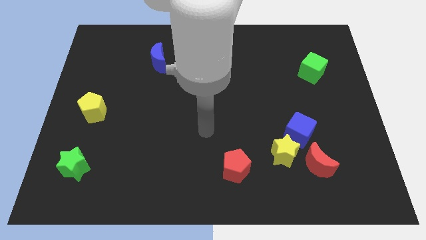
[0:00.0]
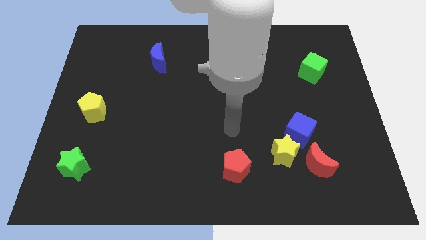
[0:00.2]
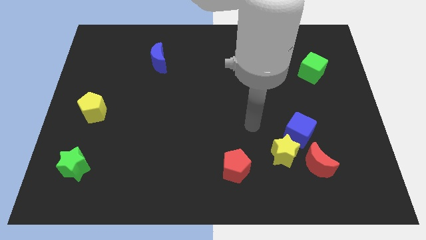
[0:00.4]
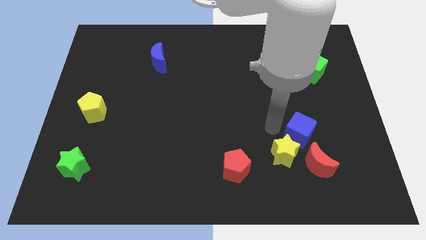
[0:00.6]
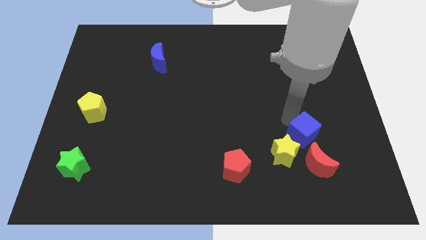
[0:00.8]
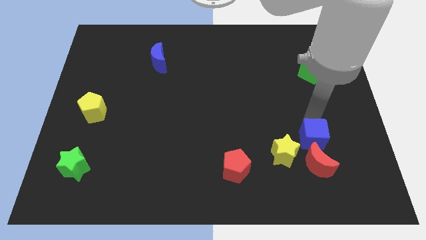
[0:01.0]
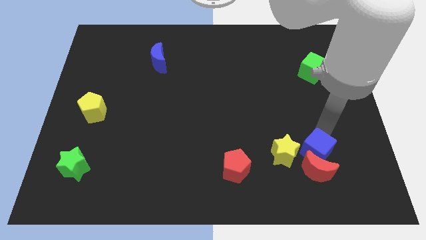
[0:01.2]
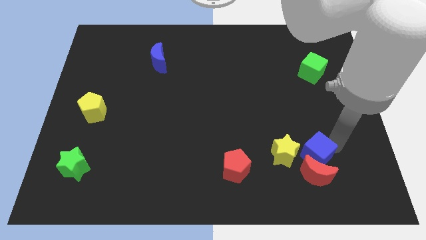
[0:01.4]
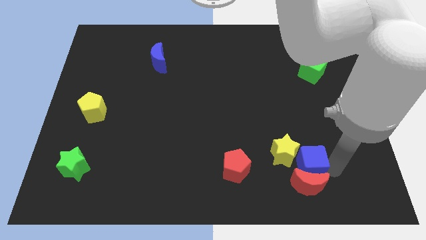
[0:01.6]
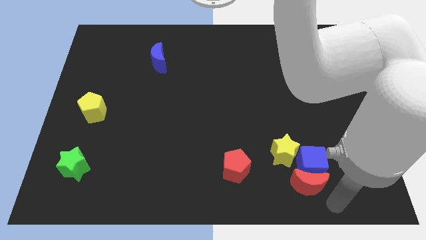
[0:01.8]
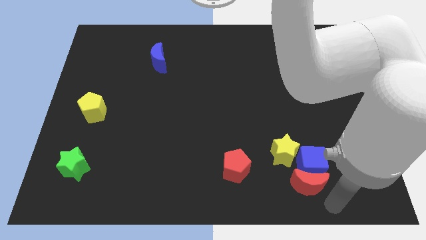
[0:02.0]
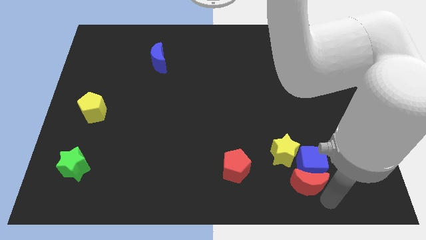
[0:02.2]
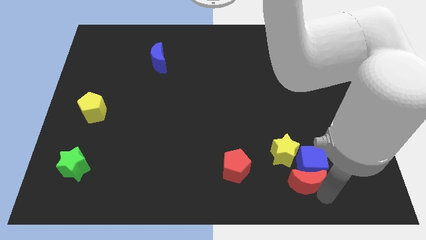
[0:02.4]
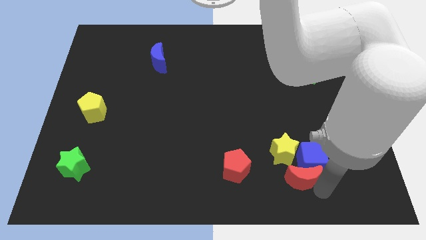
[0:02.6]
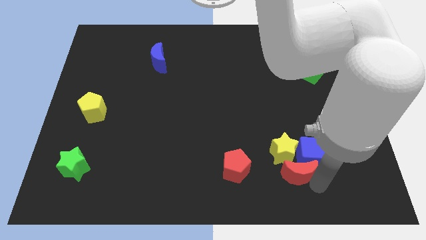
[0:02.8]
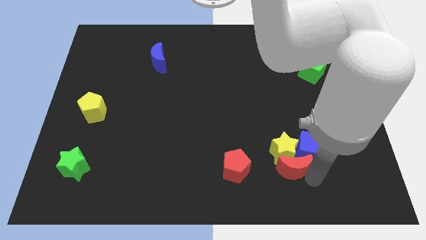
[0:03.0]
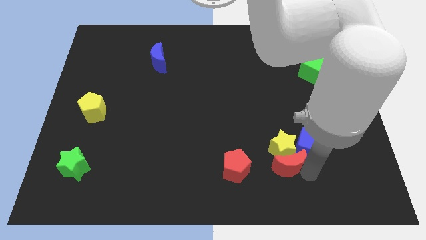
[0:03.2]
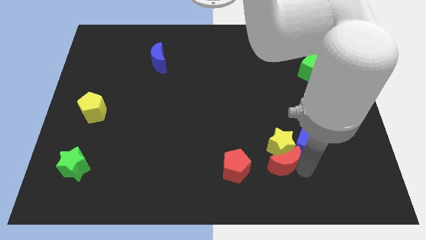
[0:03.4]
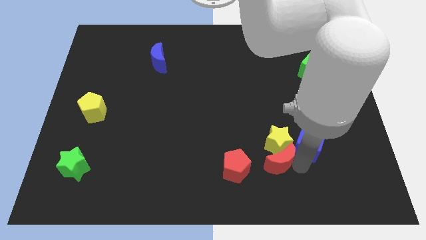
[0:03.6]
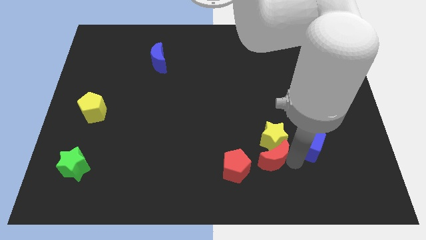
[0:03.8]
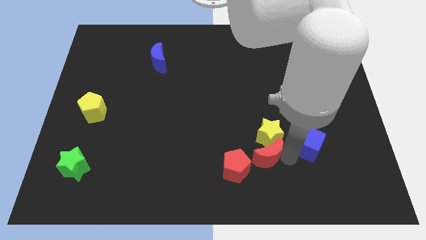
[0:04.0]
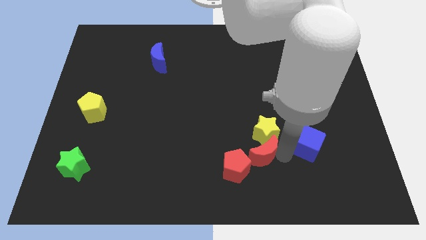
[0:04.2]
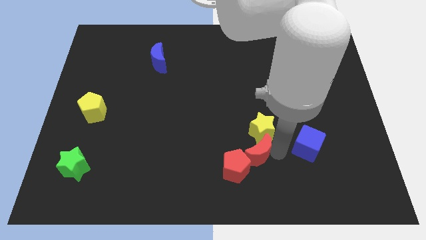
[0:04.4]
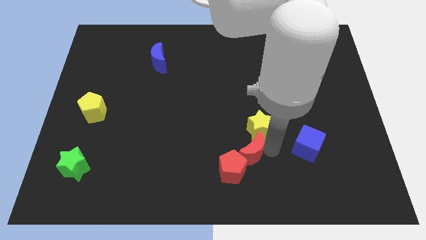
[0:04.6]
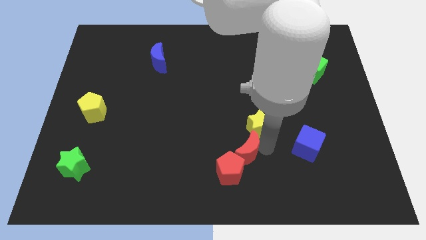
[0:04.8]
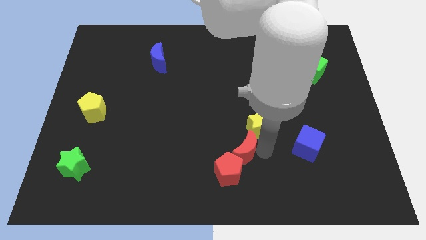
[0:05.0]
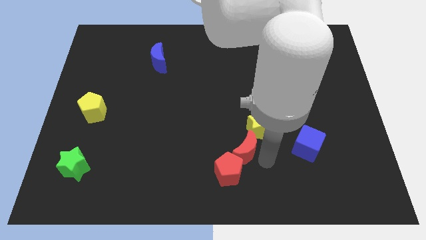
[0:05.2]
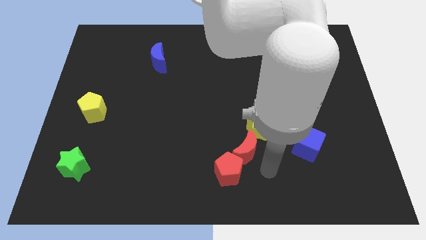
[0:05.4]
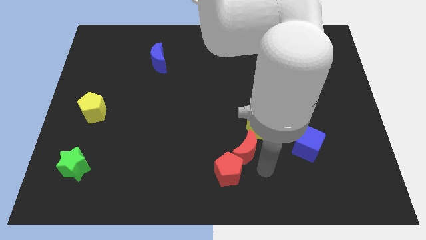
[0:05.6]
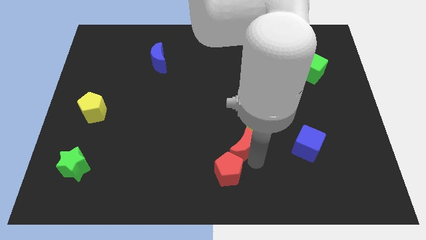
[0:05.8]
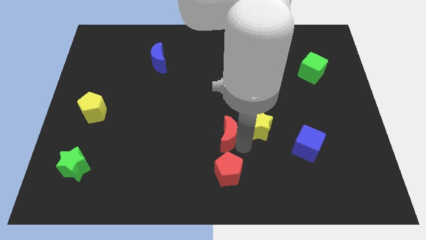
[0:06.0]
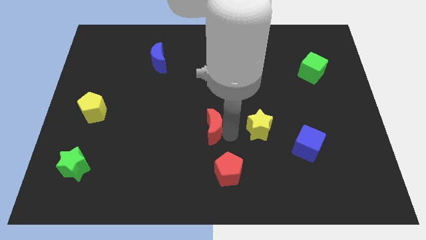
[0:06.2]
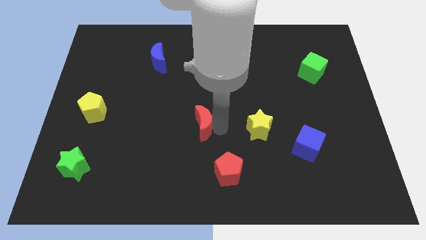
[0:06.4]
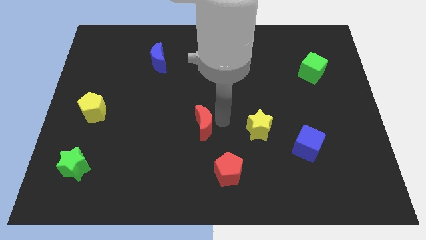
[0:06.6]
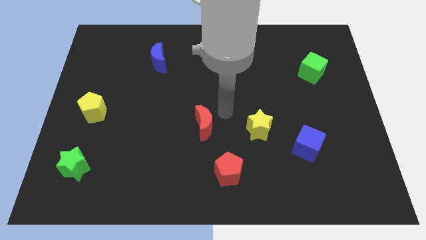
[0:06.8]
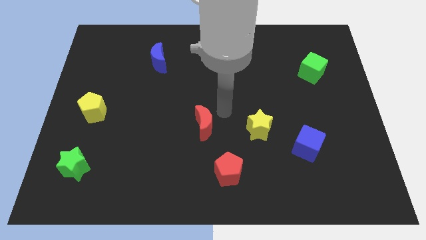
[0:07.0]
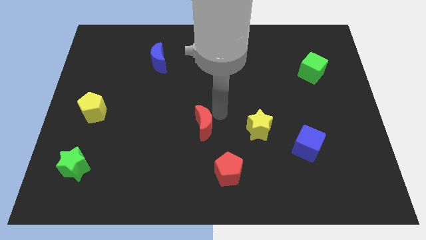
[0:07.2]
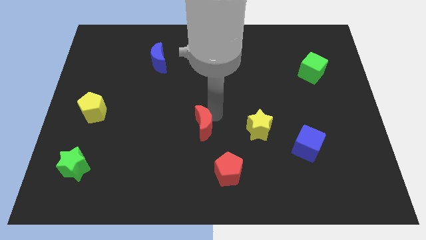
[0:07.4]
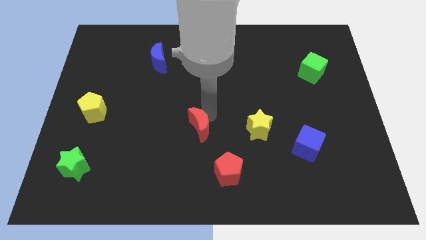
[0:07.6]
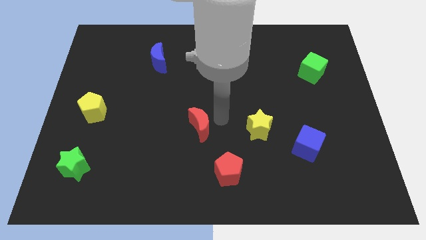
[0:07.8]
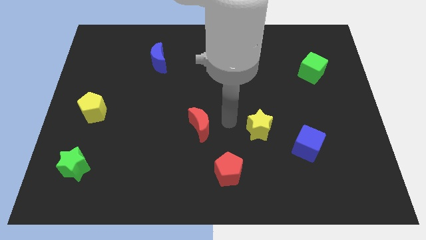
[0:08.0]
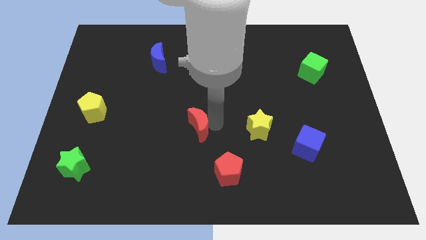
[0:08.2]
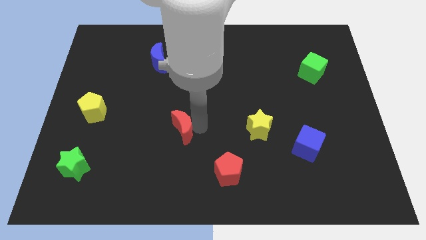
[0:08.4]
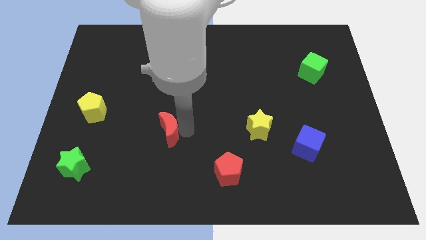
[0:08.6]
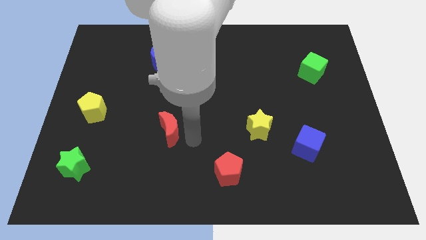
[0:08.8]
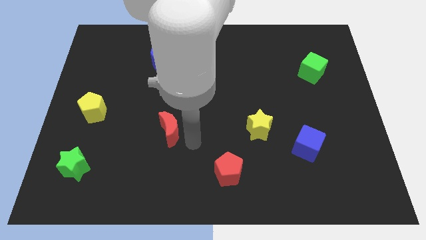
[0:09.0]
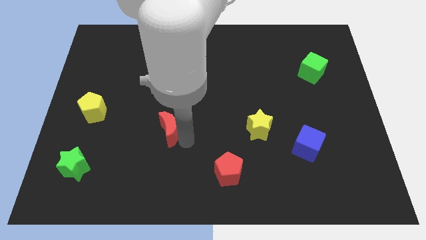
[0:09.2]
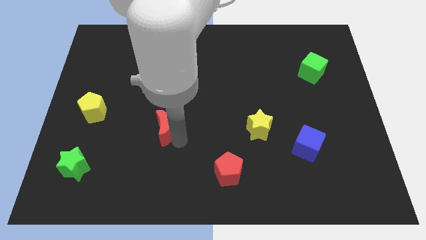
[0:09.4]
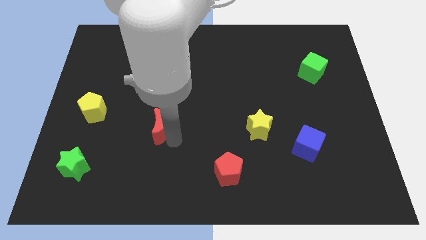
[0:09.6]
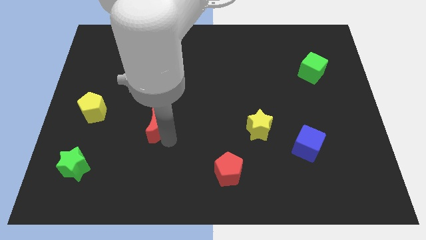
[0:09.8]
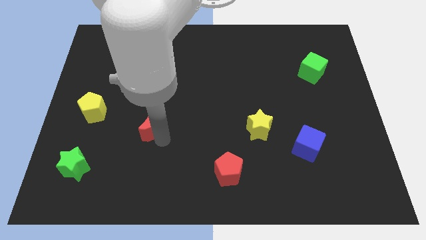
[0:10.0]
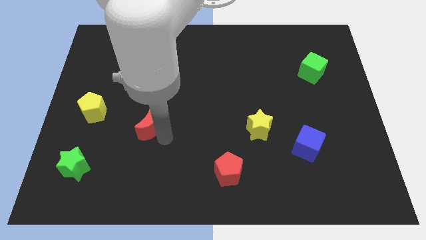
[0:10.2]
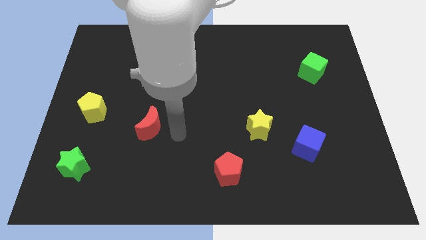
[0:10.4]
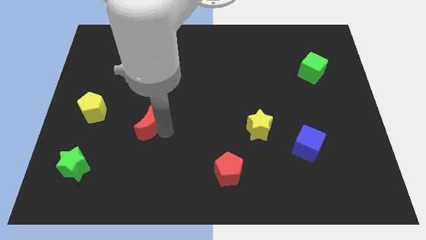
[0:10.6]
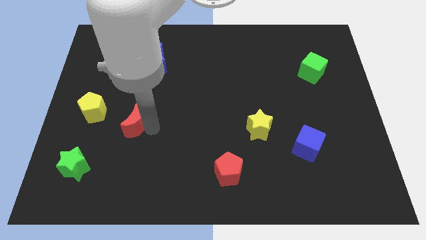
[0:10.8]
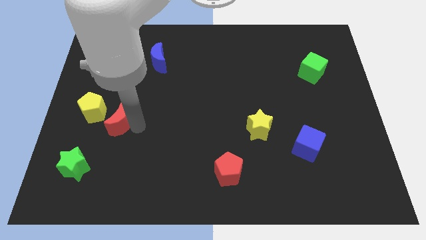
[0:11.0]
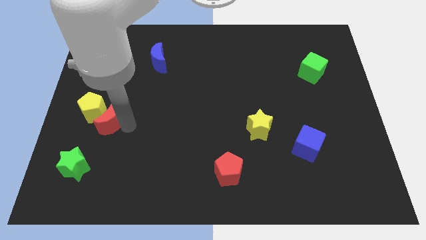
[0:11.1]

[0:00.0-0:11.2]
put the red moon next to the yellow pentagon

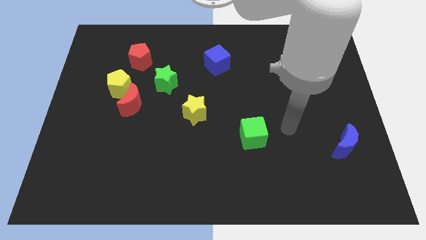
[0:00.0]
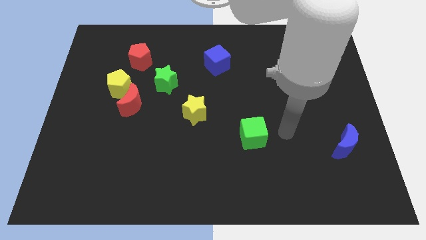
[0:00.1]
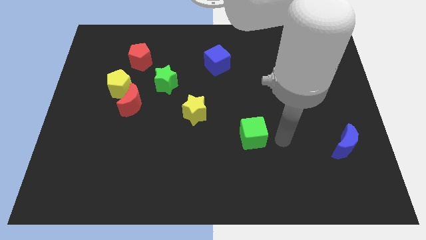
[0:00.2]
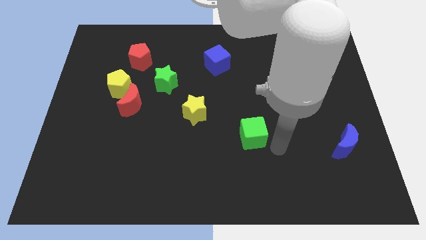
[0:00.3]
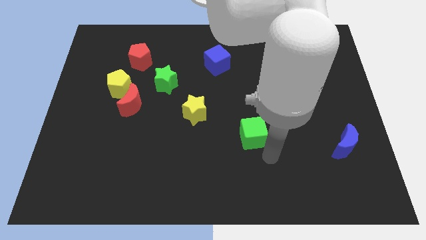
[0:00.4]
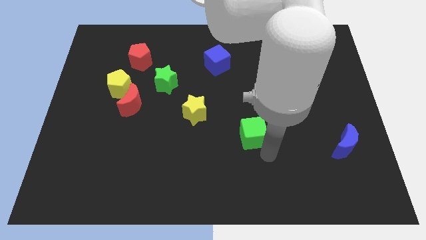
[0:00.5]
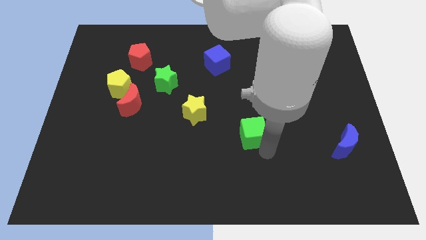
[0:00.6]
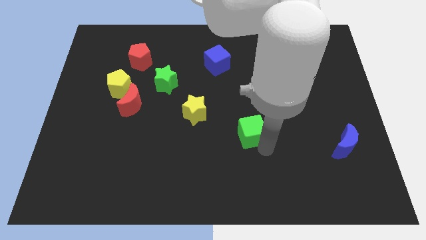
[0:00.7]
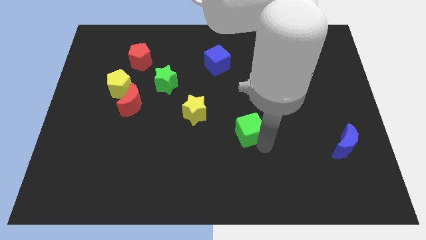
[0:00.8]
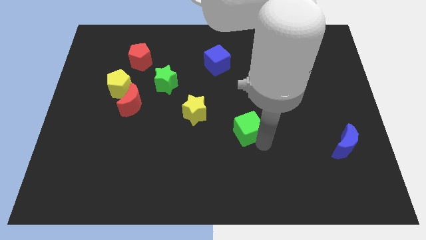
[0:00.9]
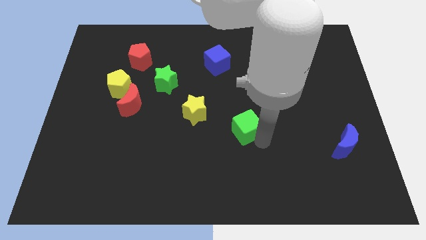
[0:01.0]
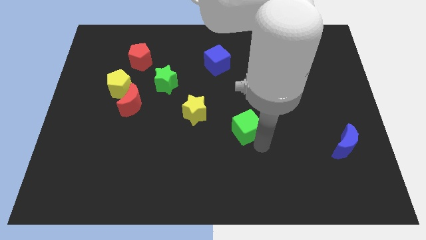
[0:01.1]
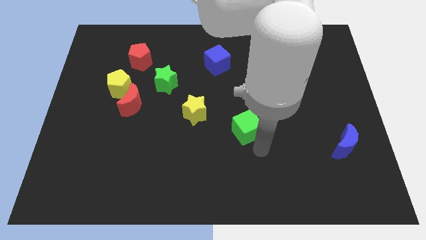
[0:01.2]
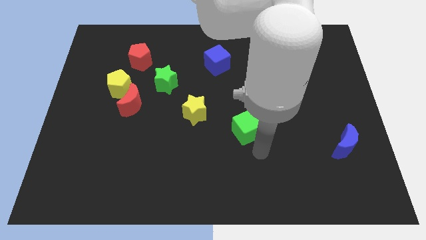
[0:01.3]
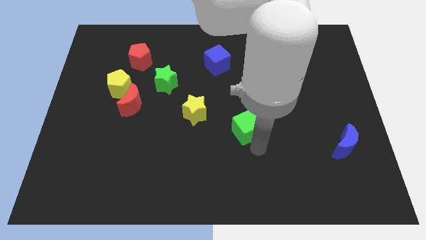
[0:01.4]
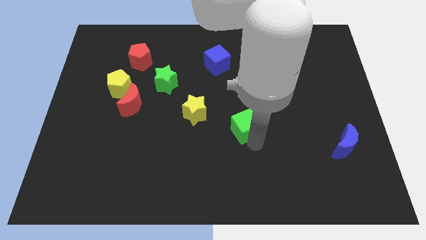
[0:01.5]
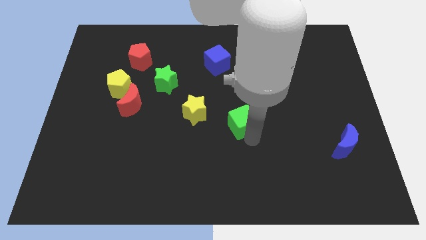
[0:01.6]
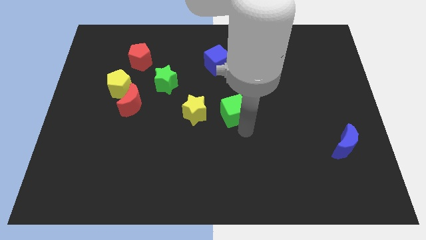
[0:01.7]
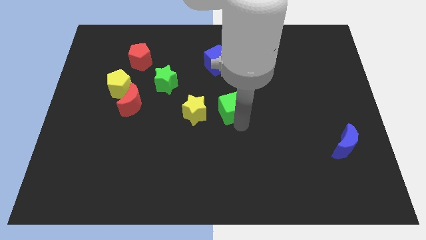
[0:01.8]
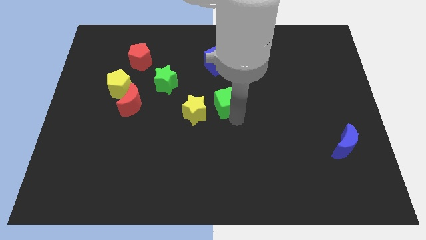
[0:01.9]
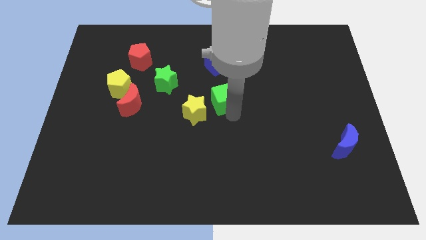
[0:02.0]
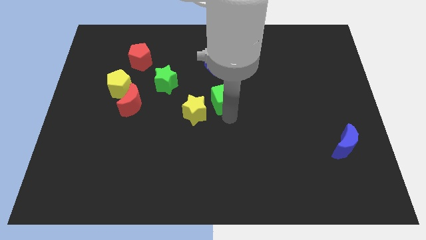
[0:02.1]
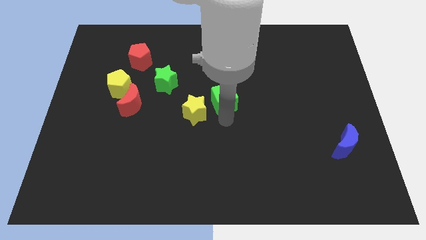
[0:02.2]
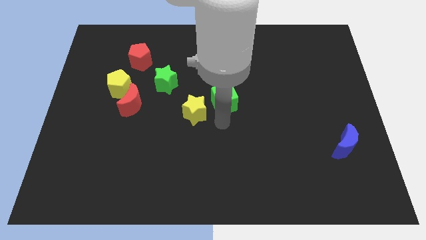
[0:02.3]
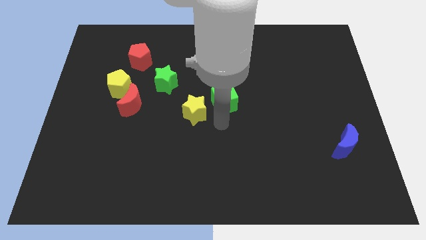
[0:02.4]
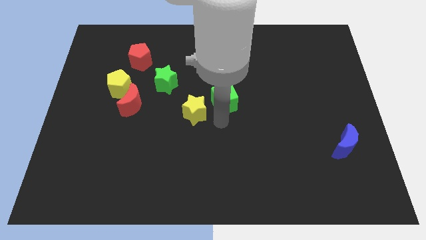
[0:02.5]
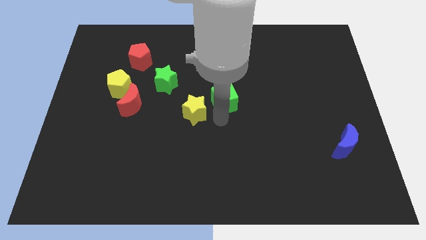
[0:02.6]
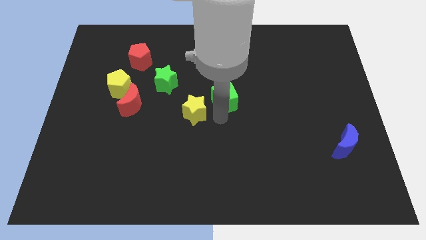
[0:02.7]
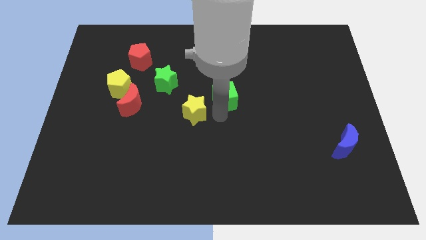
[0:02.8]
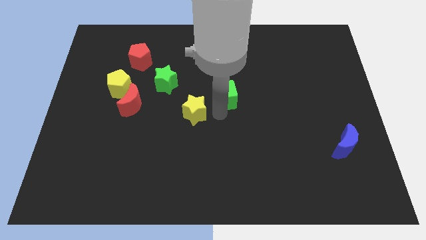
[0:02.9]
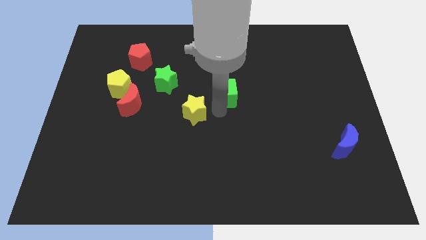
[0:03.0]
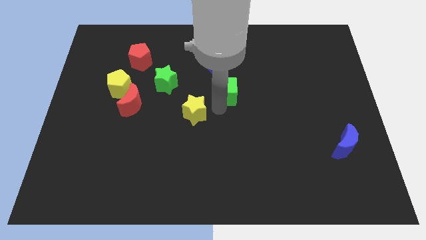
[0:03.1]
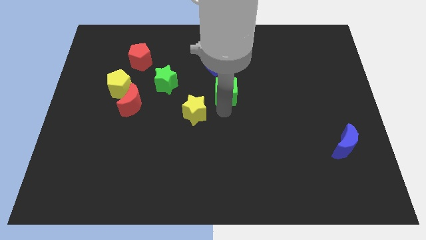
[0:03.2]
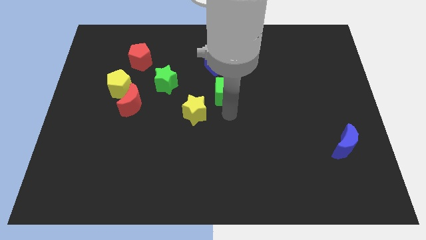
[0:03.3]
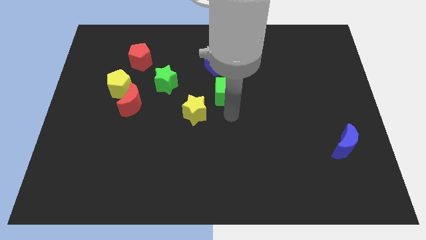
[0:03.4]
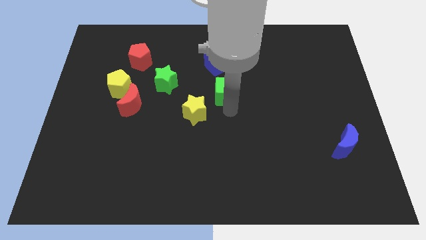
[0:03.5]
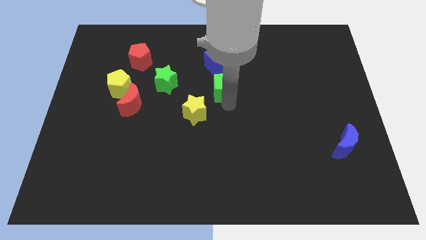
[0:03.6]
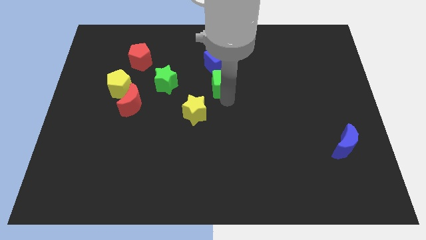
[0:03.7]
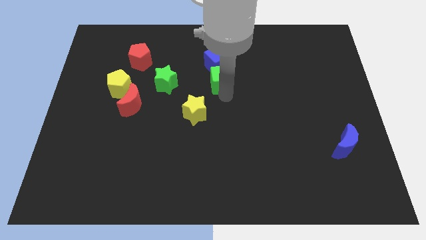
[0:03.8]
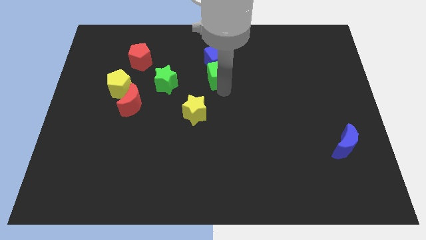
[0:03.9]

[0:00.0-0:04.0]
push the green cube towards the blue cube
